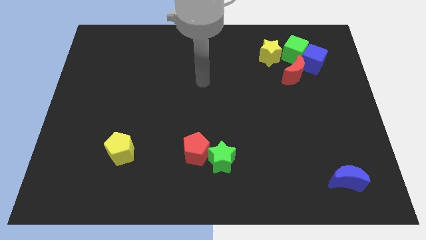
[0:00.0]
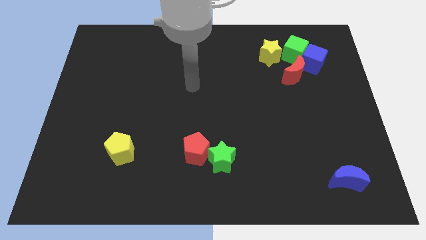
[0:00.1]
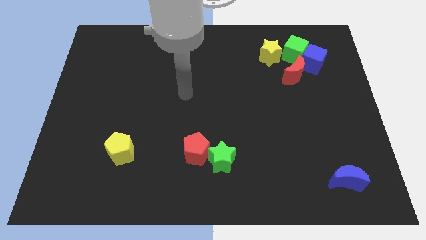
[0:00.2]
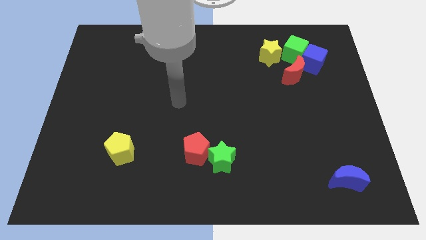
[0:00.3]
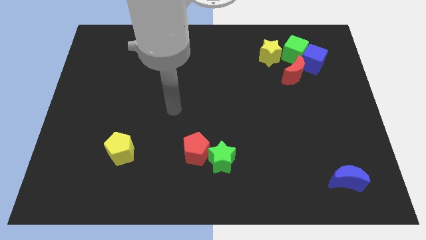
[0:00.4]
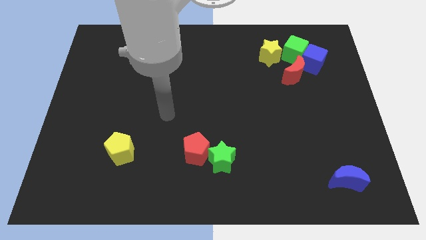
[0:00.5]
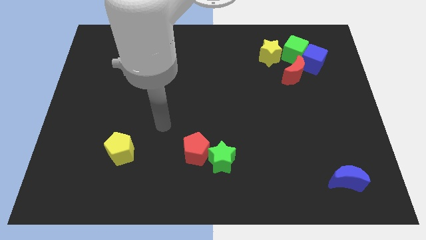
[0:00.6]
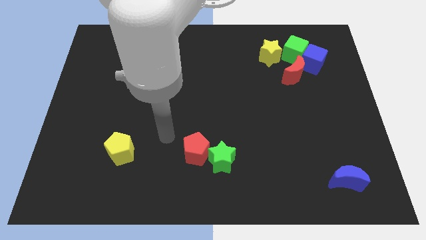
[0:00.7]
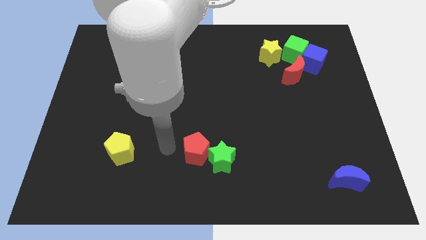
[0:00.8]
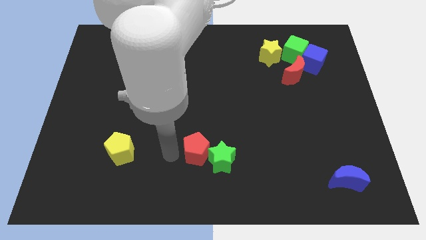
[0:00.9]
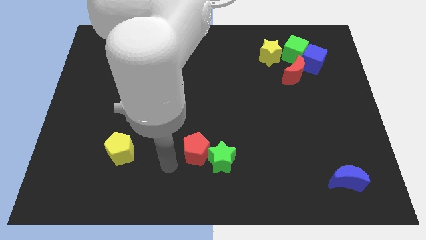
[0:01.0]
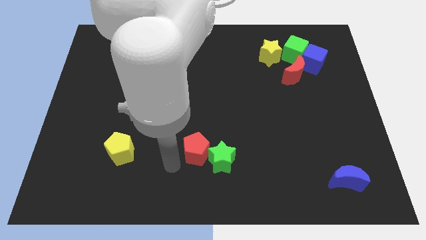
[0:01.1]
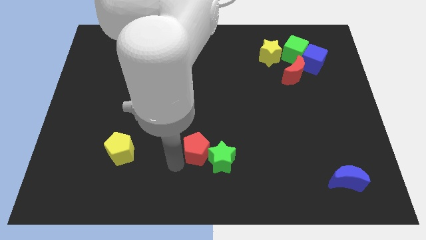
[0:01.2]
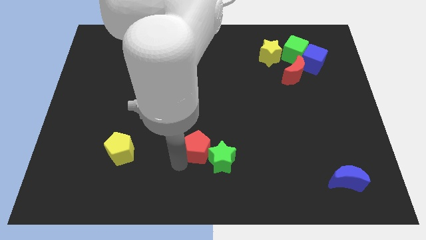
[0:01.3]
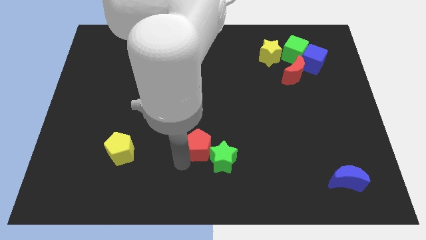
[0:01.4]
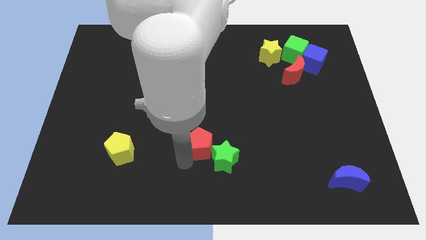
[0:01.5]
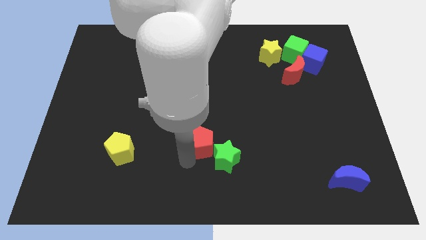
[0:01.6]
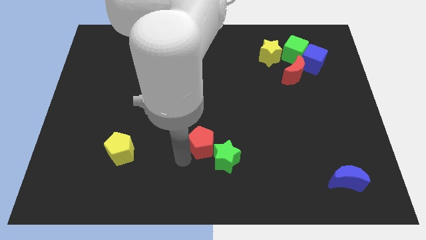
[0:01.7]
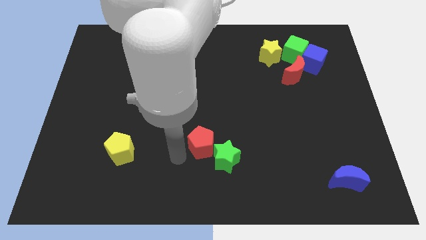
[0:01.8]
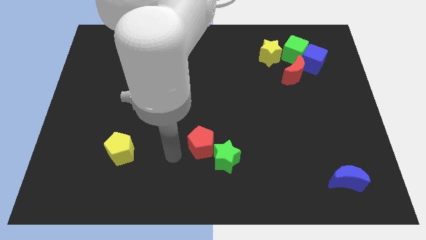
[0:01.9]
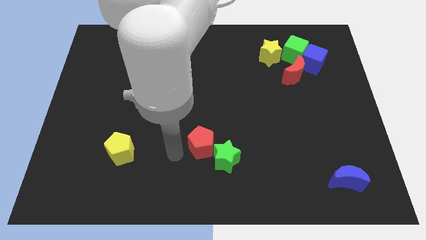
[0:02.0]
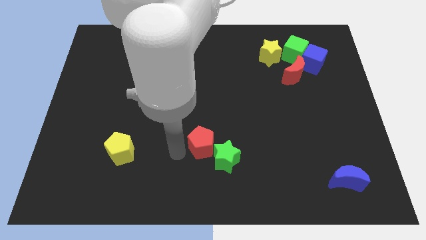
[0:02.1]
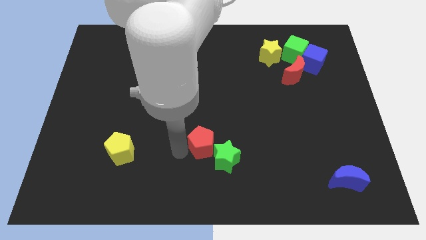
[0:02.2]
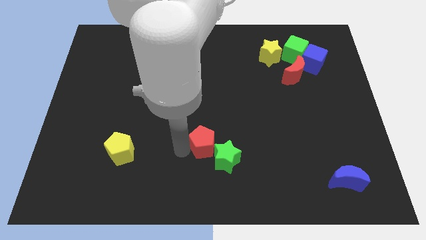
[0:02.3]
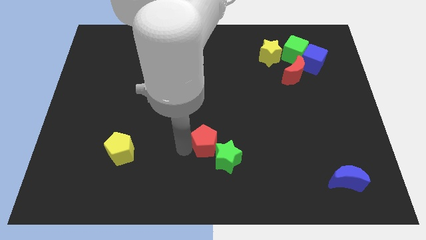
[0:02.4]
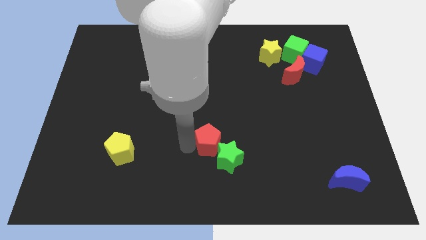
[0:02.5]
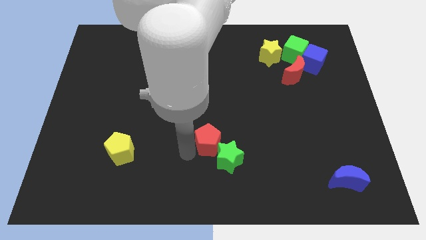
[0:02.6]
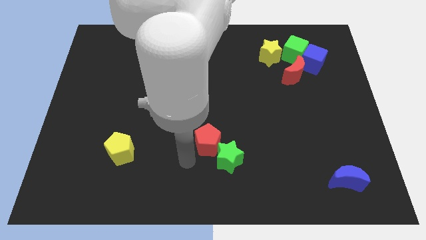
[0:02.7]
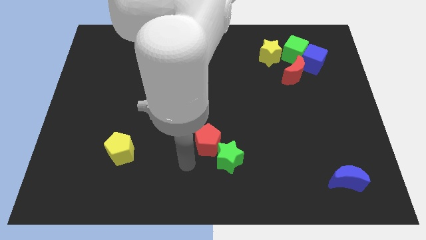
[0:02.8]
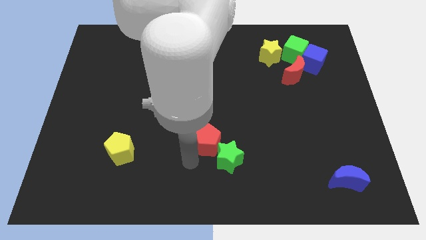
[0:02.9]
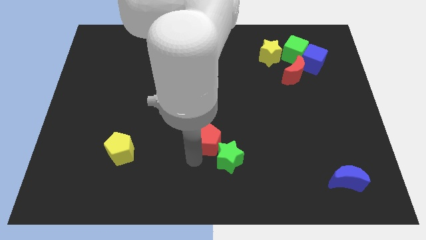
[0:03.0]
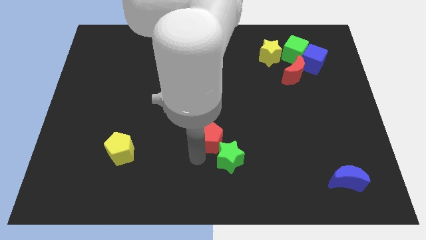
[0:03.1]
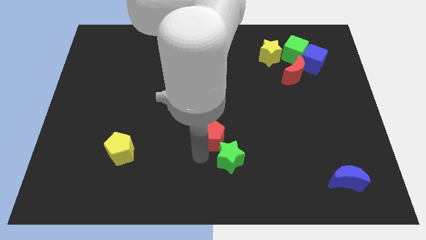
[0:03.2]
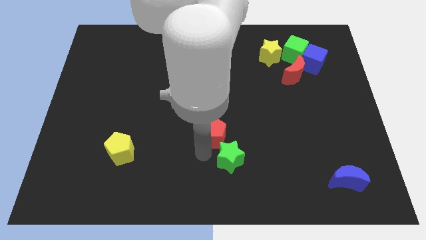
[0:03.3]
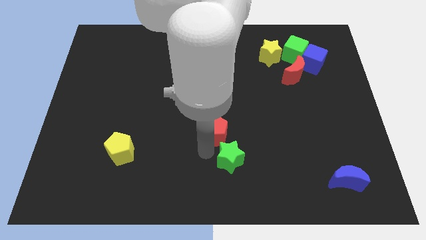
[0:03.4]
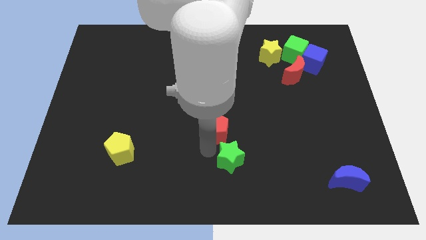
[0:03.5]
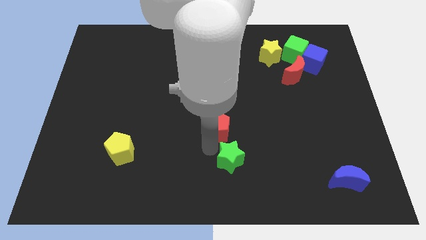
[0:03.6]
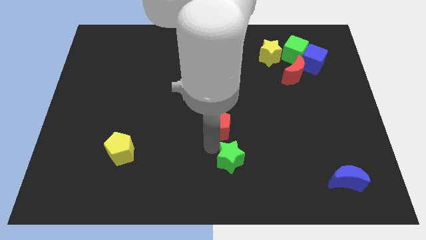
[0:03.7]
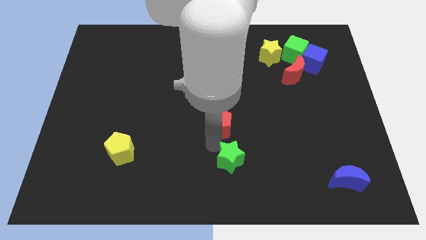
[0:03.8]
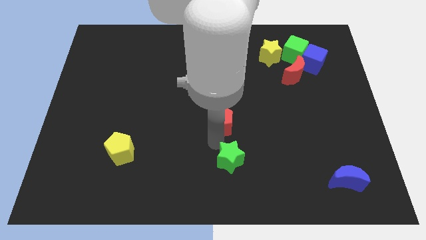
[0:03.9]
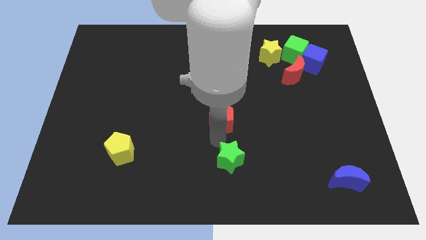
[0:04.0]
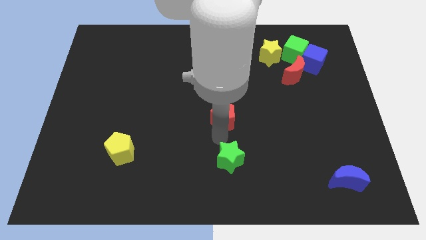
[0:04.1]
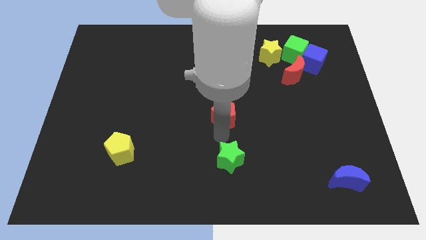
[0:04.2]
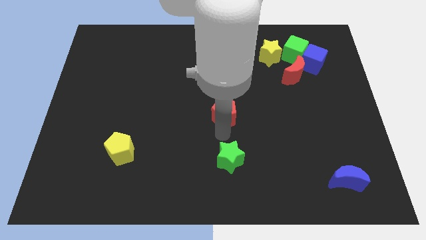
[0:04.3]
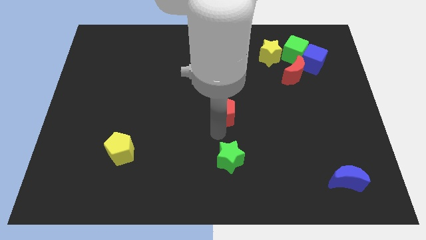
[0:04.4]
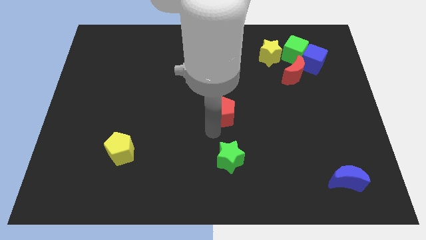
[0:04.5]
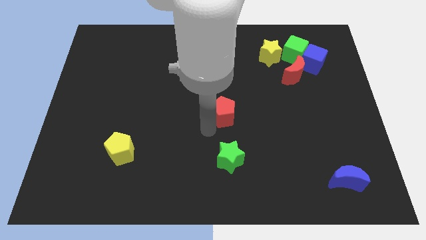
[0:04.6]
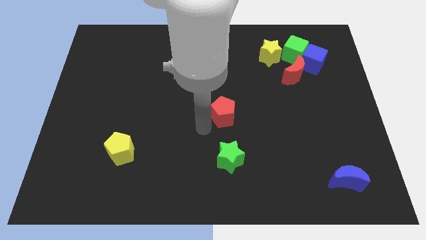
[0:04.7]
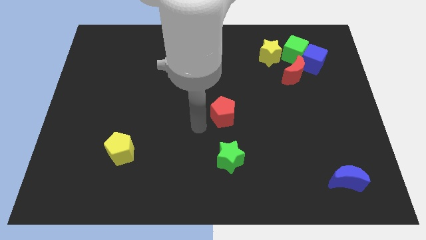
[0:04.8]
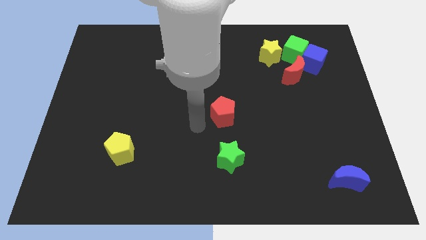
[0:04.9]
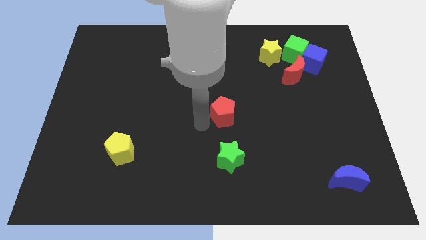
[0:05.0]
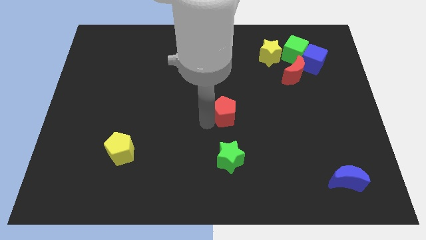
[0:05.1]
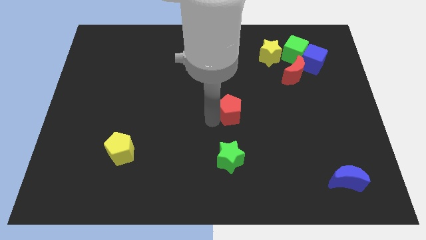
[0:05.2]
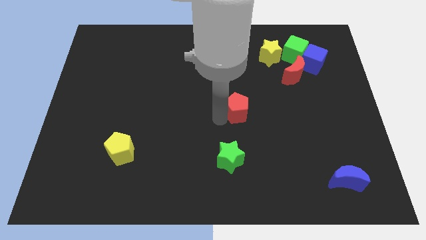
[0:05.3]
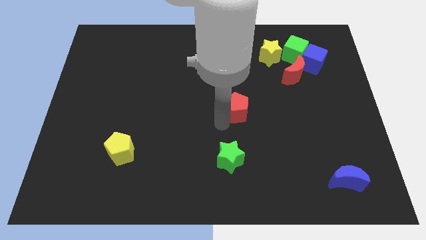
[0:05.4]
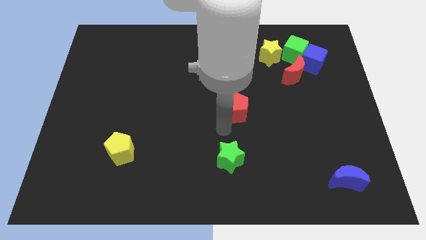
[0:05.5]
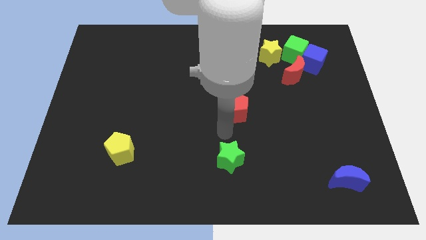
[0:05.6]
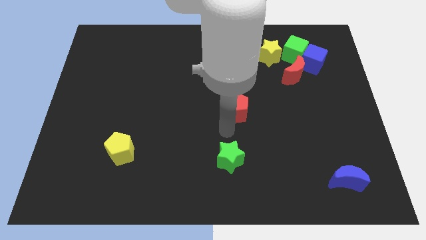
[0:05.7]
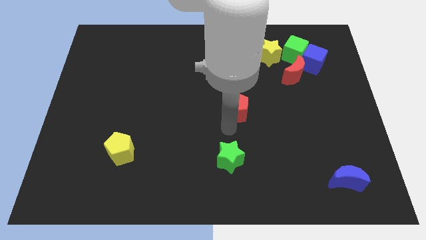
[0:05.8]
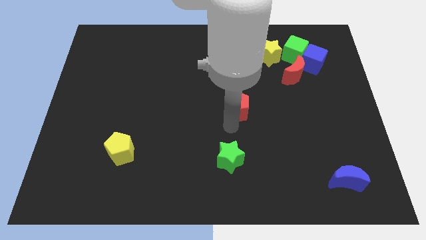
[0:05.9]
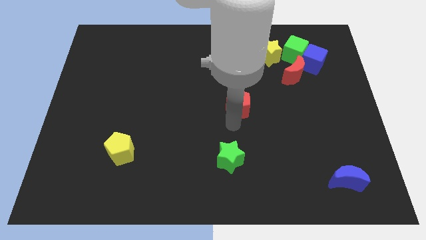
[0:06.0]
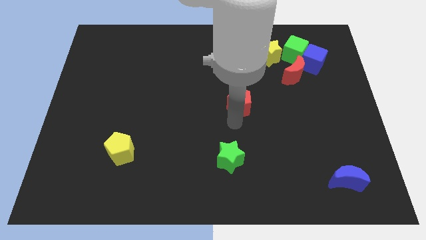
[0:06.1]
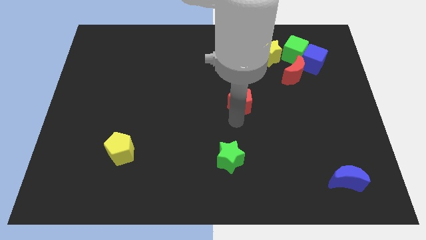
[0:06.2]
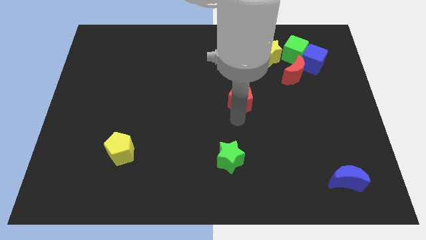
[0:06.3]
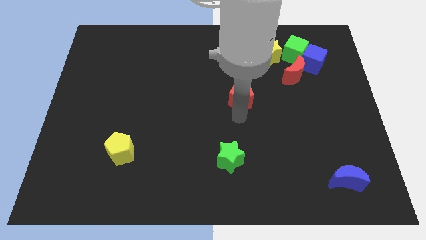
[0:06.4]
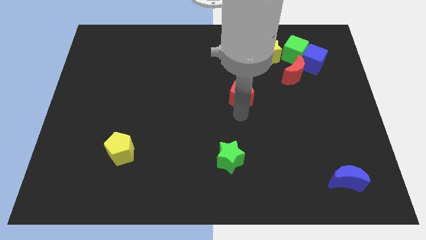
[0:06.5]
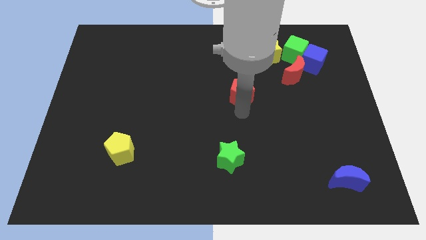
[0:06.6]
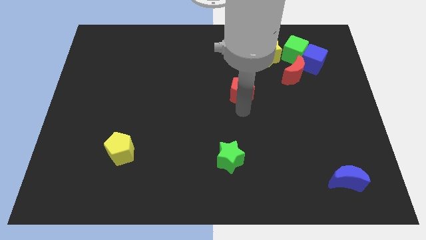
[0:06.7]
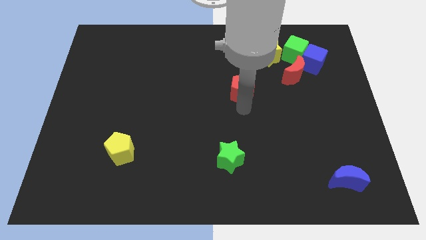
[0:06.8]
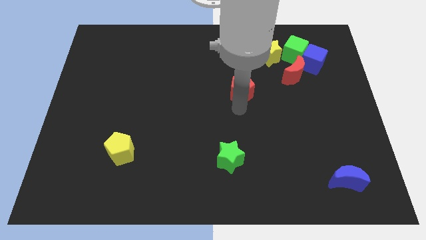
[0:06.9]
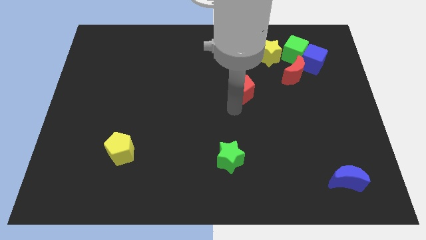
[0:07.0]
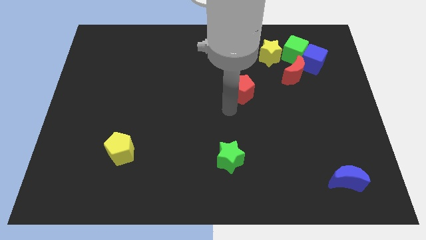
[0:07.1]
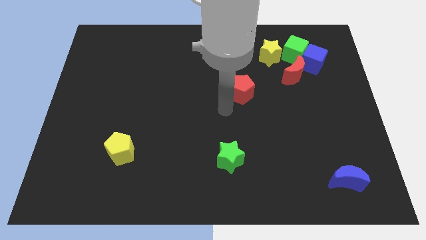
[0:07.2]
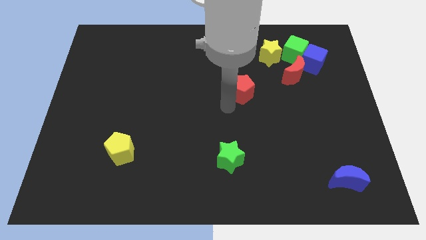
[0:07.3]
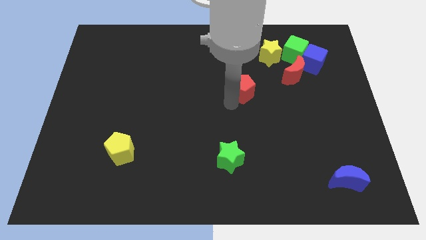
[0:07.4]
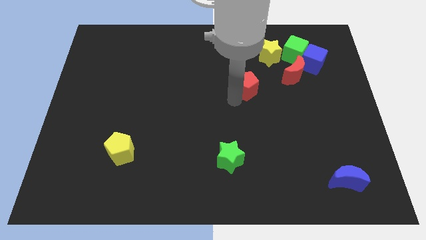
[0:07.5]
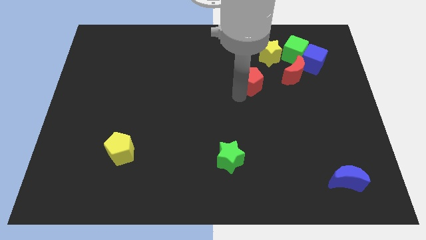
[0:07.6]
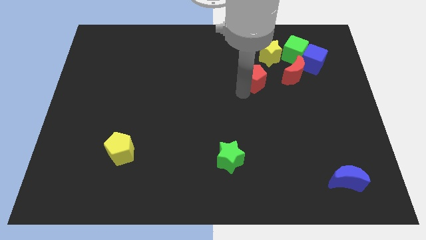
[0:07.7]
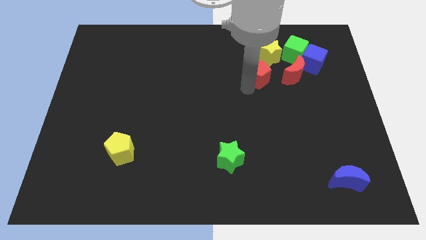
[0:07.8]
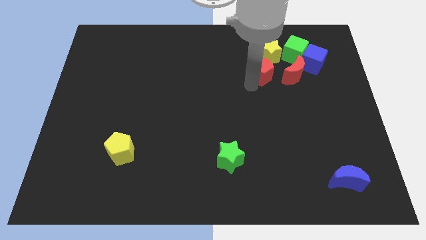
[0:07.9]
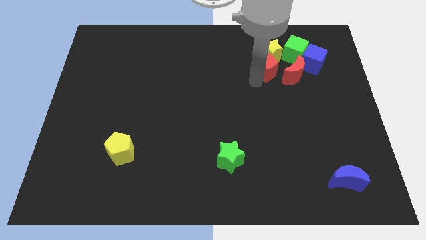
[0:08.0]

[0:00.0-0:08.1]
put the red pentagon next to the yellow star
